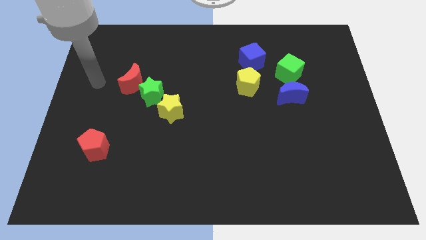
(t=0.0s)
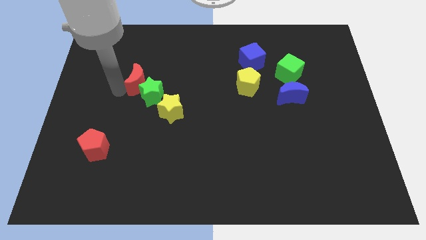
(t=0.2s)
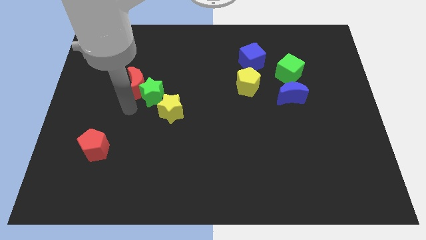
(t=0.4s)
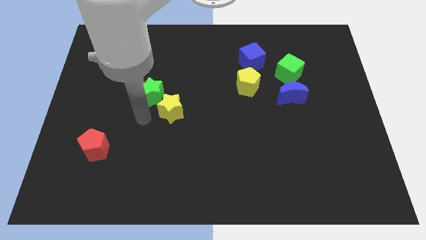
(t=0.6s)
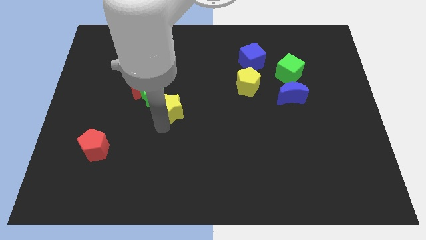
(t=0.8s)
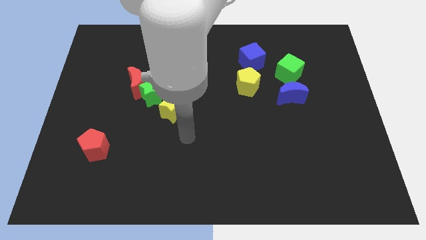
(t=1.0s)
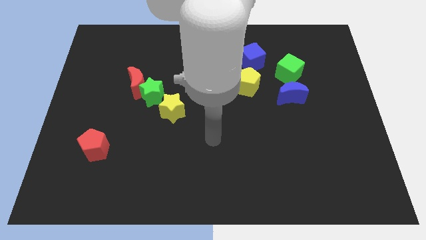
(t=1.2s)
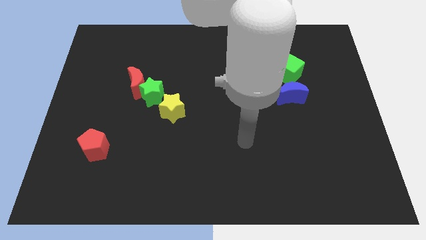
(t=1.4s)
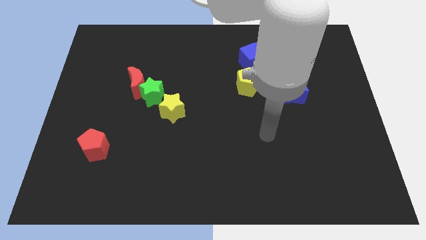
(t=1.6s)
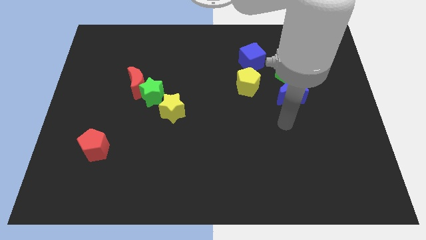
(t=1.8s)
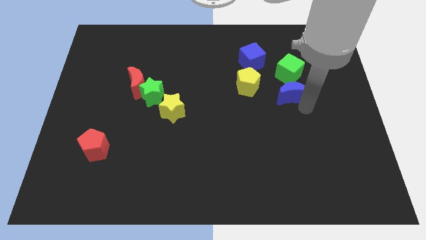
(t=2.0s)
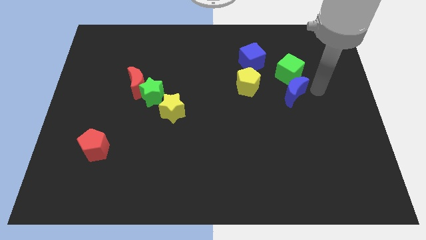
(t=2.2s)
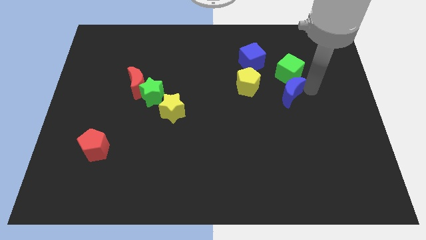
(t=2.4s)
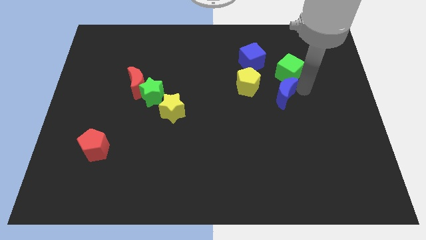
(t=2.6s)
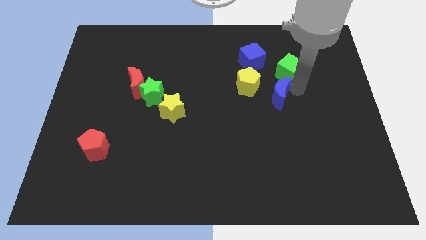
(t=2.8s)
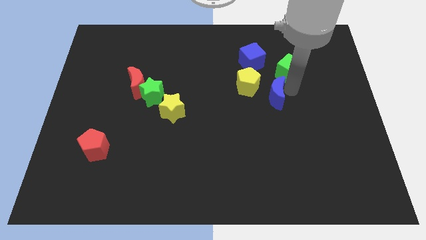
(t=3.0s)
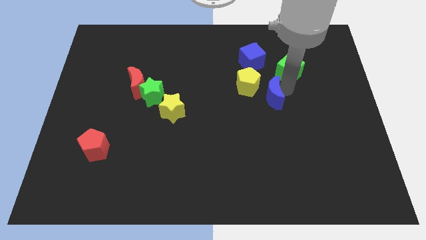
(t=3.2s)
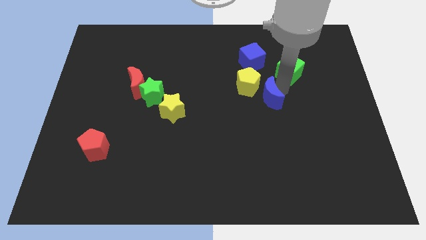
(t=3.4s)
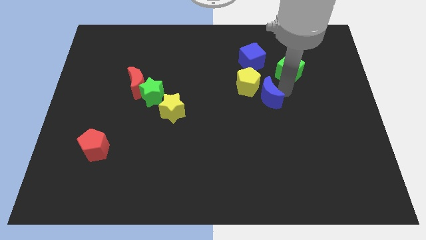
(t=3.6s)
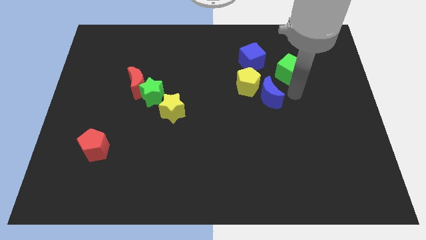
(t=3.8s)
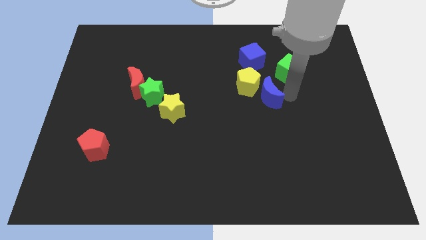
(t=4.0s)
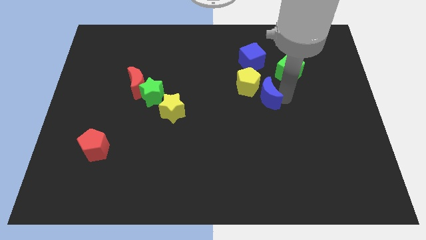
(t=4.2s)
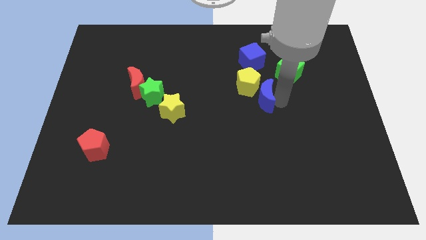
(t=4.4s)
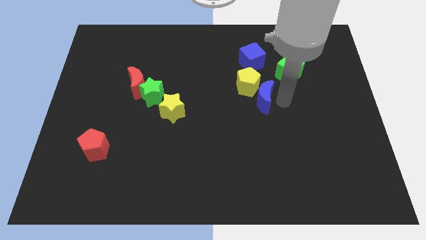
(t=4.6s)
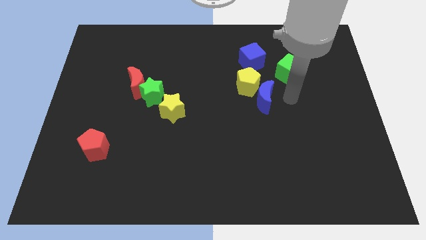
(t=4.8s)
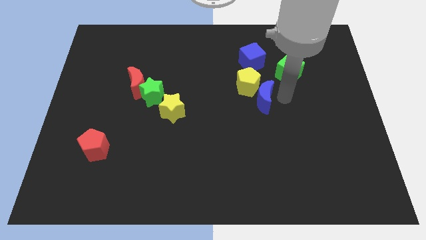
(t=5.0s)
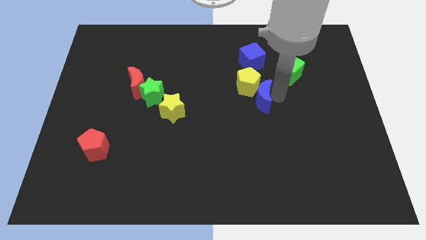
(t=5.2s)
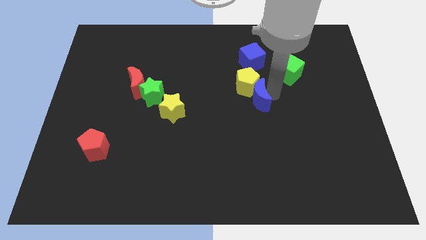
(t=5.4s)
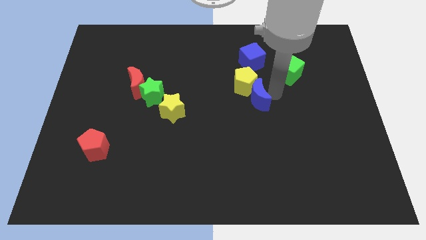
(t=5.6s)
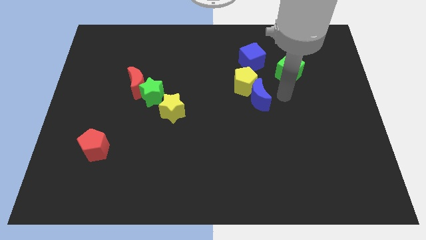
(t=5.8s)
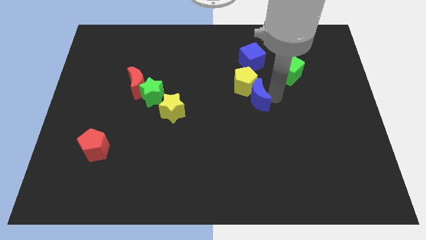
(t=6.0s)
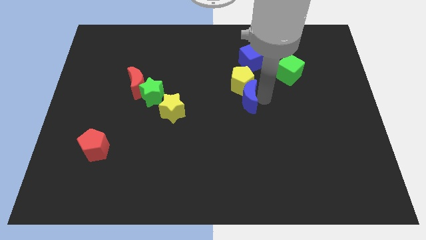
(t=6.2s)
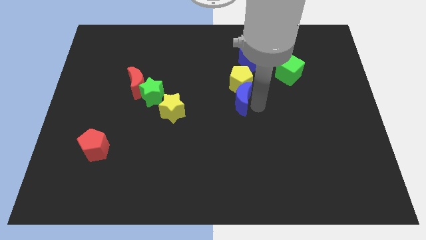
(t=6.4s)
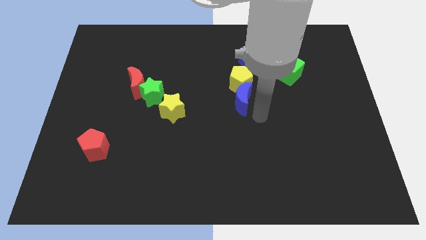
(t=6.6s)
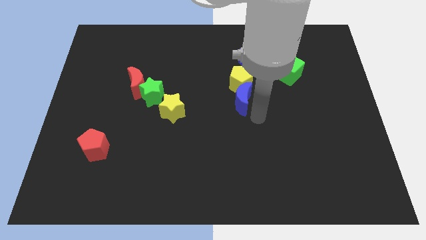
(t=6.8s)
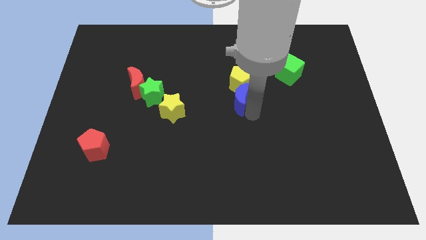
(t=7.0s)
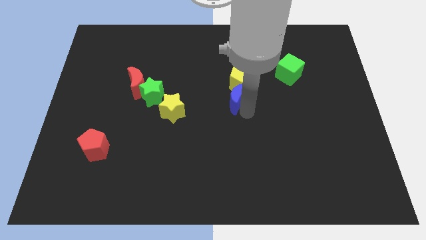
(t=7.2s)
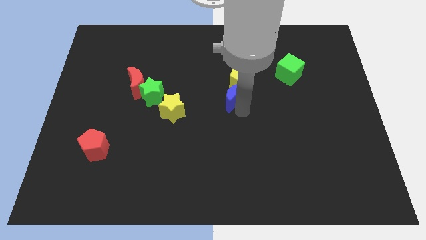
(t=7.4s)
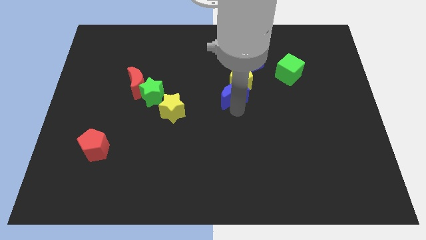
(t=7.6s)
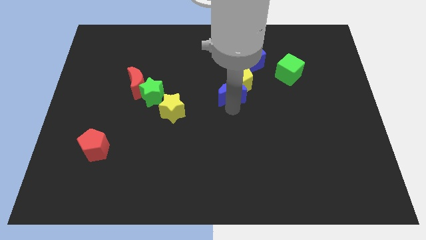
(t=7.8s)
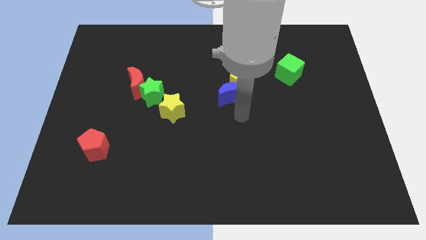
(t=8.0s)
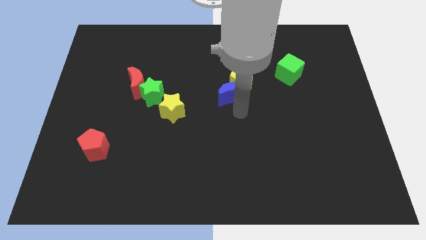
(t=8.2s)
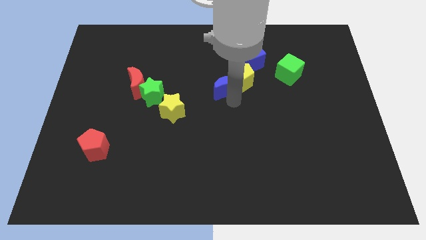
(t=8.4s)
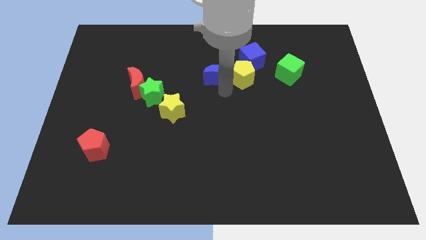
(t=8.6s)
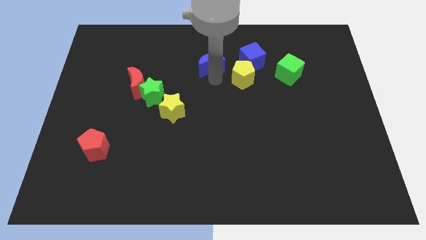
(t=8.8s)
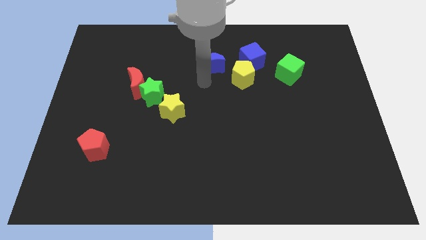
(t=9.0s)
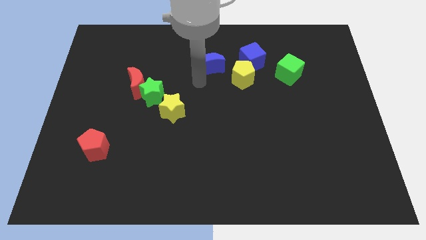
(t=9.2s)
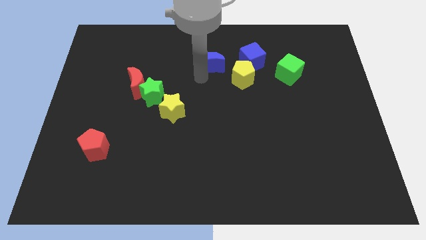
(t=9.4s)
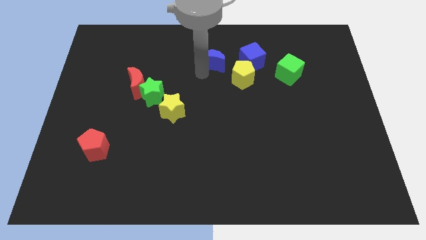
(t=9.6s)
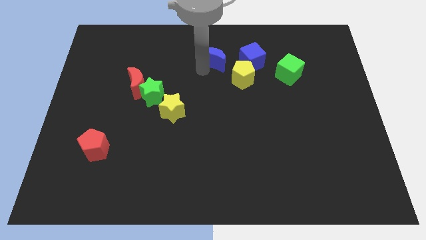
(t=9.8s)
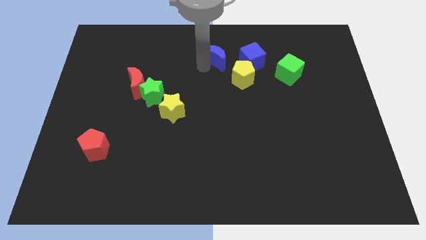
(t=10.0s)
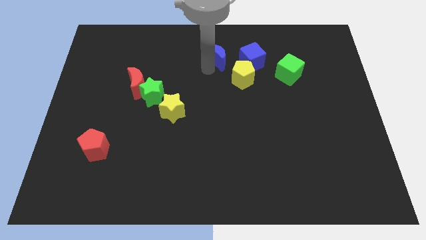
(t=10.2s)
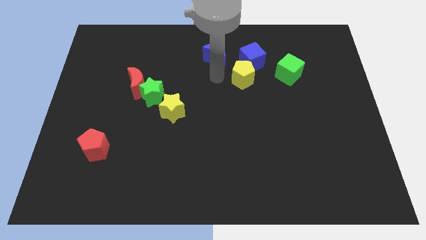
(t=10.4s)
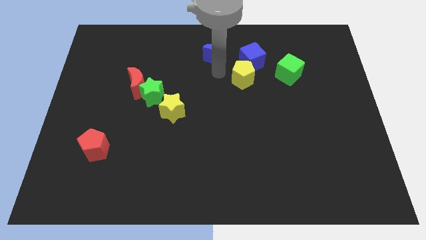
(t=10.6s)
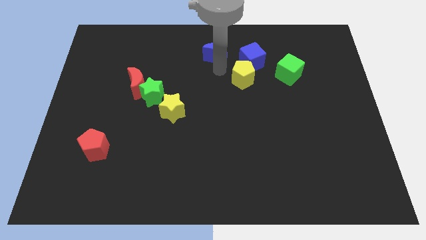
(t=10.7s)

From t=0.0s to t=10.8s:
slide the blue moon to the top

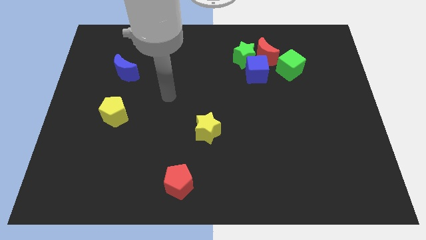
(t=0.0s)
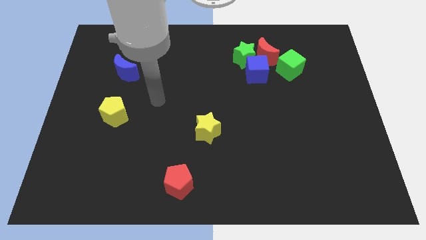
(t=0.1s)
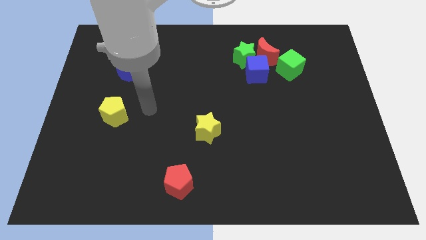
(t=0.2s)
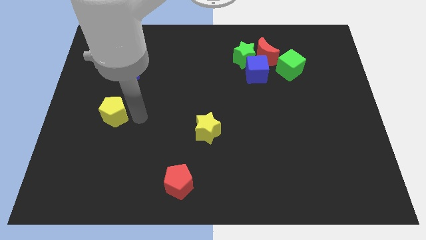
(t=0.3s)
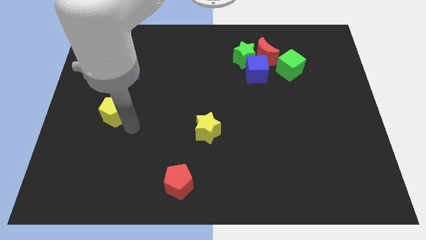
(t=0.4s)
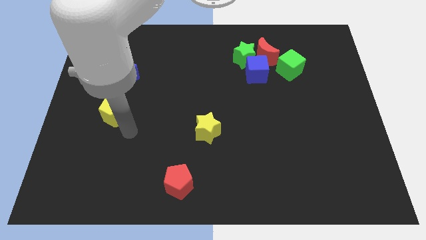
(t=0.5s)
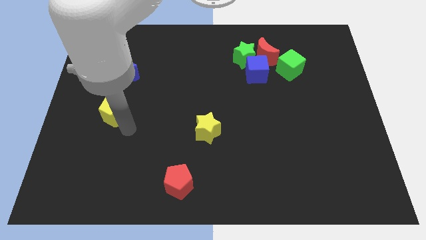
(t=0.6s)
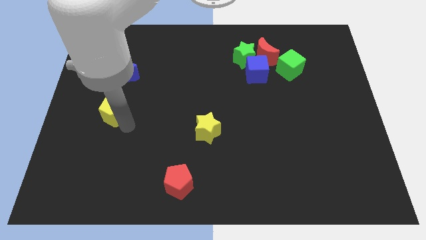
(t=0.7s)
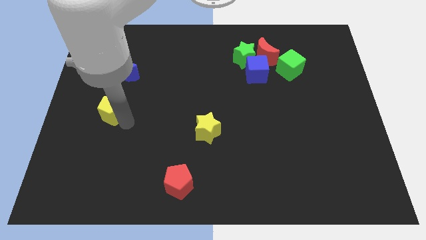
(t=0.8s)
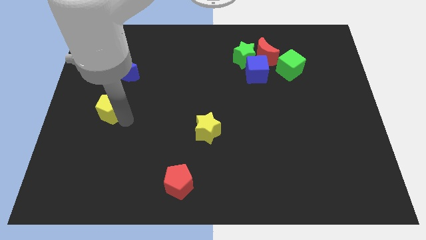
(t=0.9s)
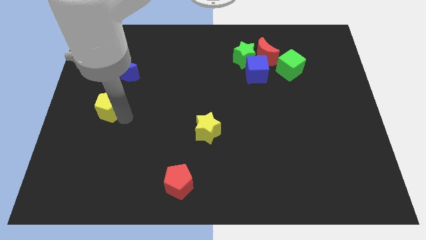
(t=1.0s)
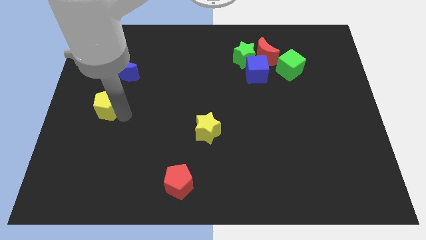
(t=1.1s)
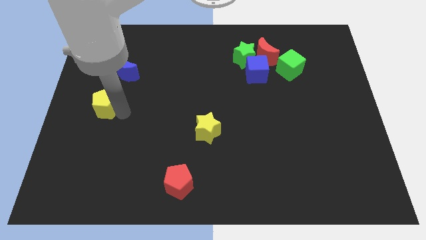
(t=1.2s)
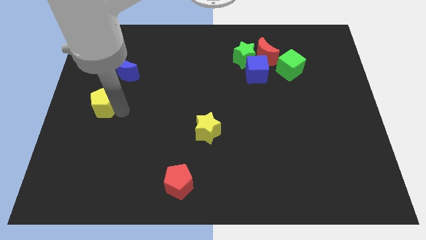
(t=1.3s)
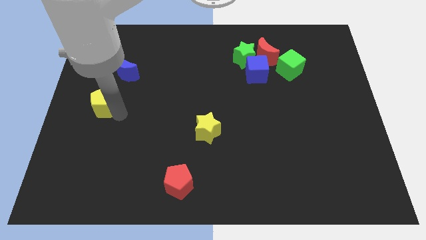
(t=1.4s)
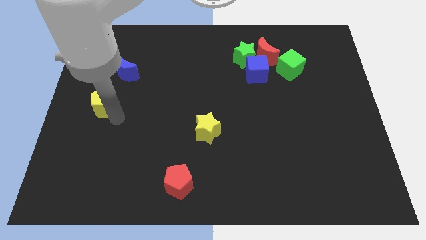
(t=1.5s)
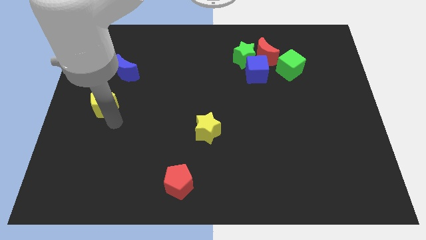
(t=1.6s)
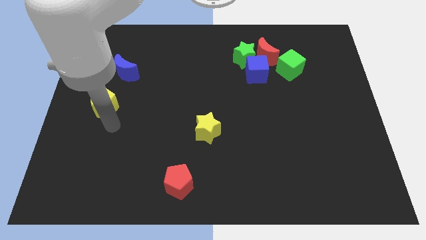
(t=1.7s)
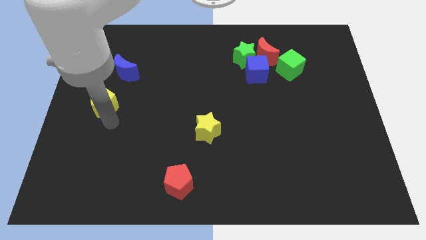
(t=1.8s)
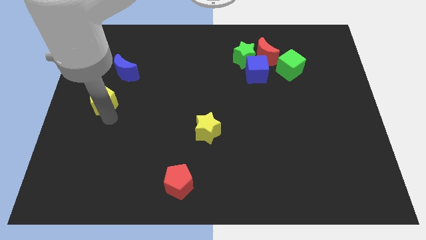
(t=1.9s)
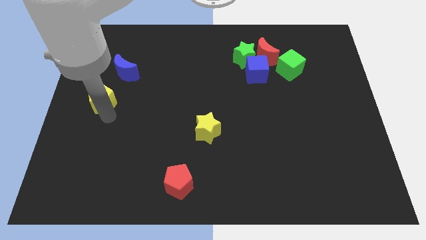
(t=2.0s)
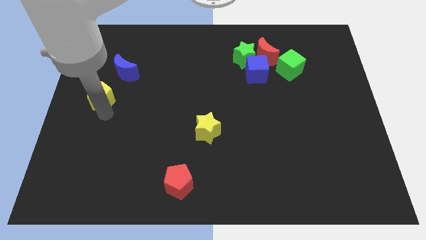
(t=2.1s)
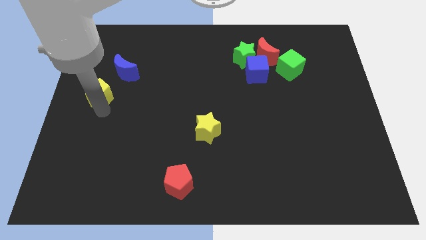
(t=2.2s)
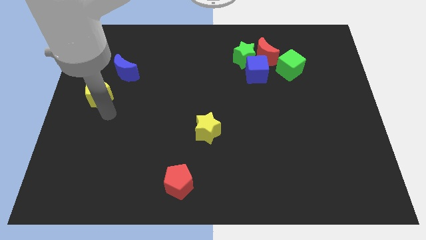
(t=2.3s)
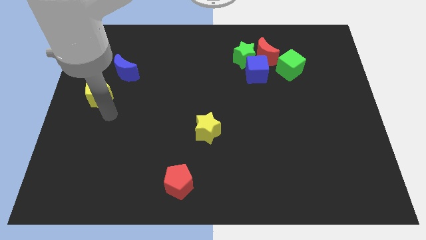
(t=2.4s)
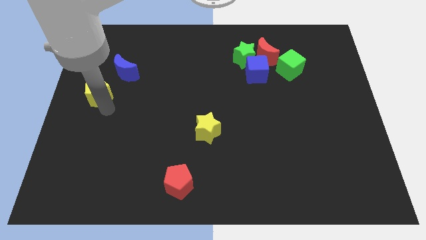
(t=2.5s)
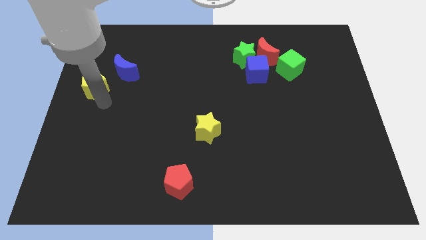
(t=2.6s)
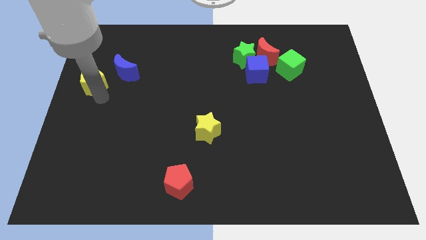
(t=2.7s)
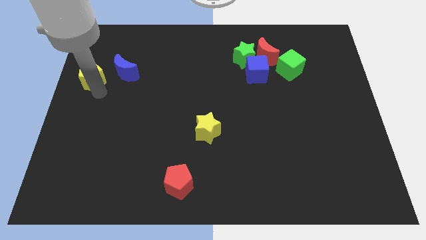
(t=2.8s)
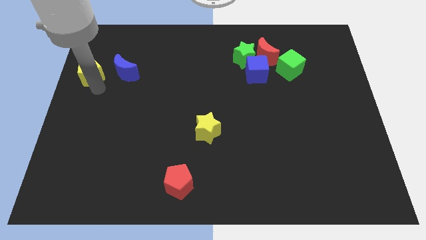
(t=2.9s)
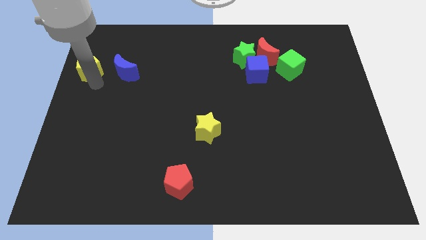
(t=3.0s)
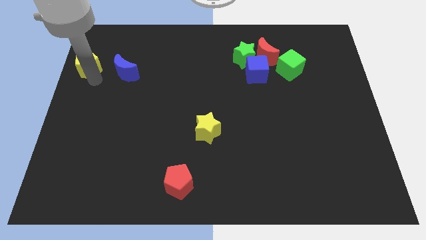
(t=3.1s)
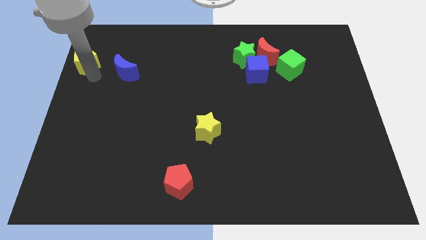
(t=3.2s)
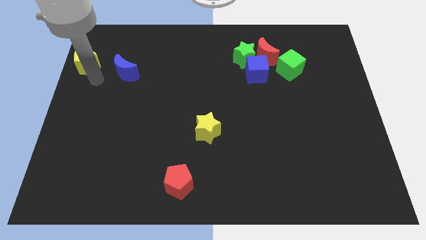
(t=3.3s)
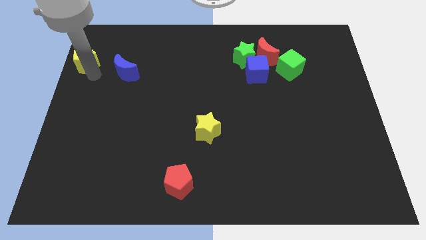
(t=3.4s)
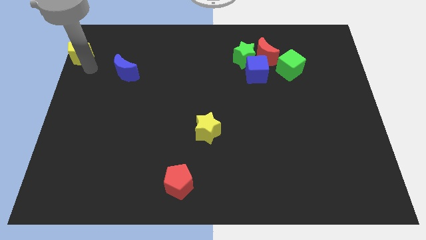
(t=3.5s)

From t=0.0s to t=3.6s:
slide the yellow pentagon to the upper left corner
